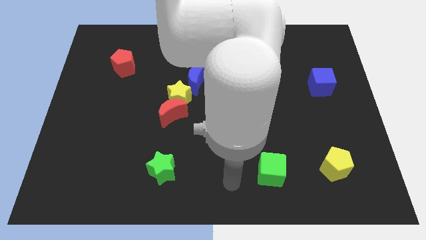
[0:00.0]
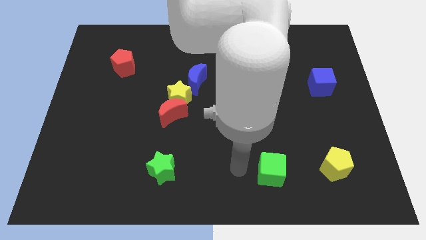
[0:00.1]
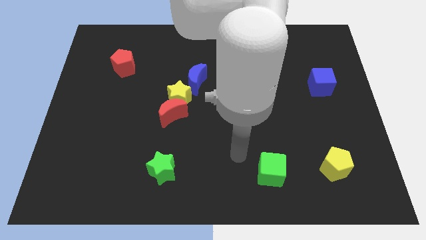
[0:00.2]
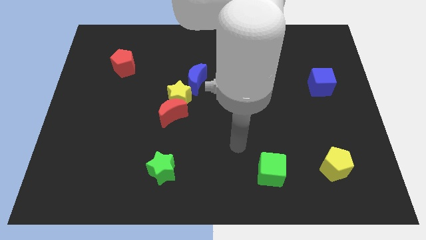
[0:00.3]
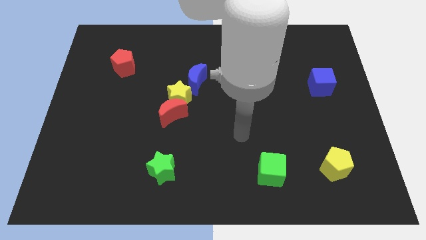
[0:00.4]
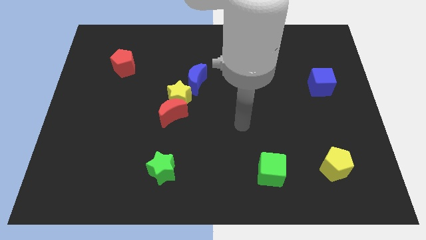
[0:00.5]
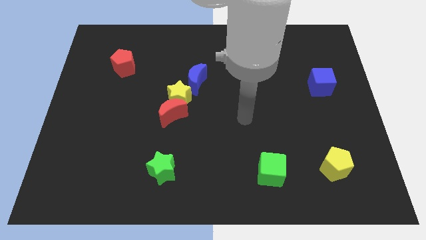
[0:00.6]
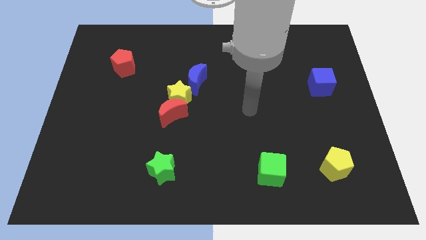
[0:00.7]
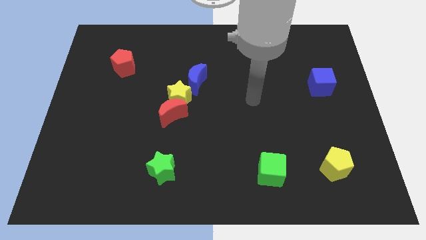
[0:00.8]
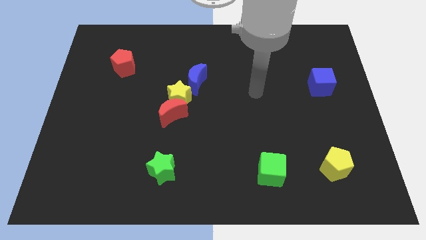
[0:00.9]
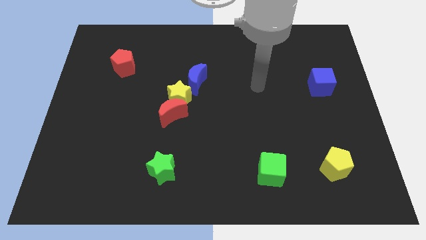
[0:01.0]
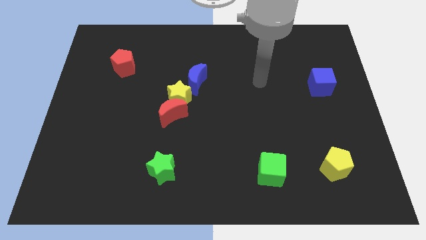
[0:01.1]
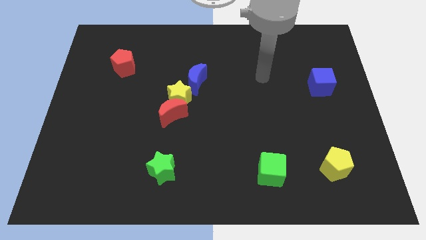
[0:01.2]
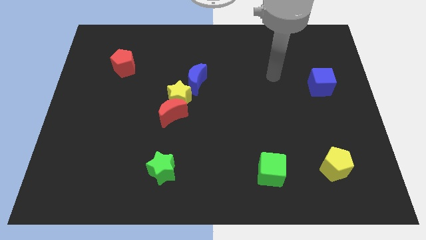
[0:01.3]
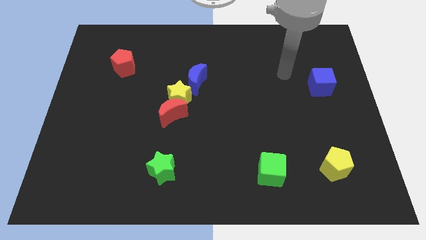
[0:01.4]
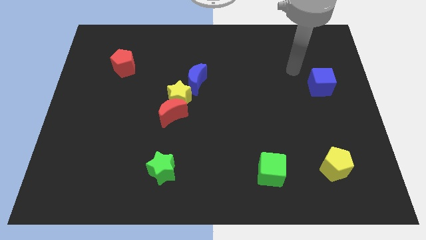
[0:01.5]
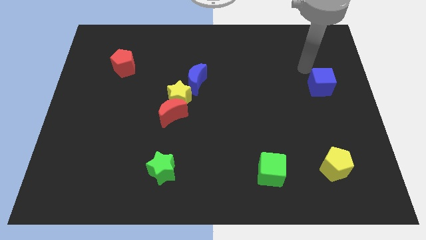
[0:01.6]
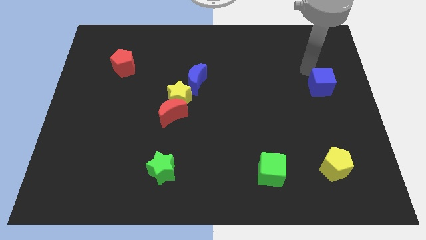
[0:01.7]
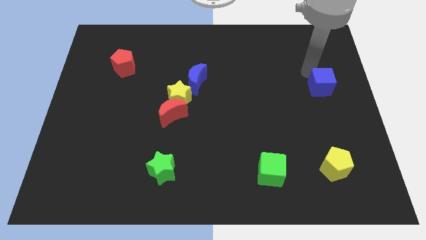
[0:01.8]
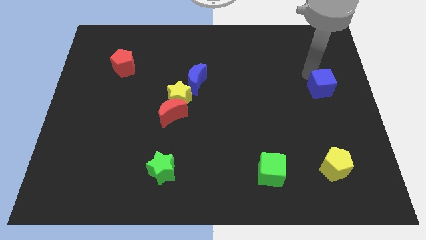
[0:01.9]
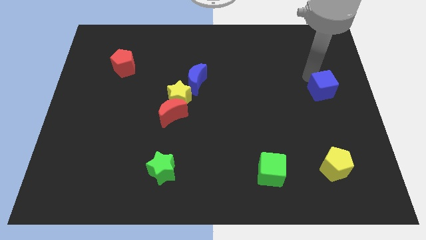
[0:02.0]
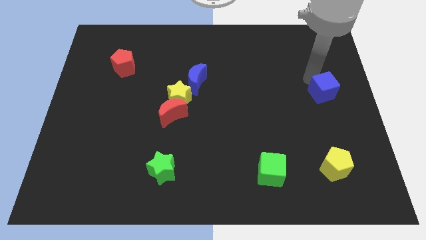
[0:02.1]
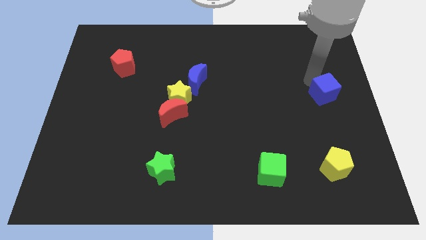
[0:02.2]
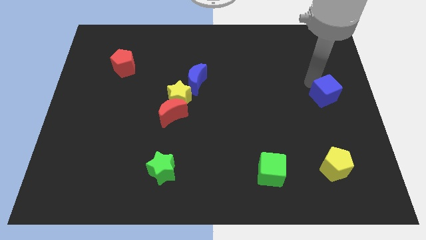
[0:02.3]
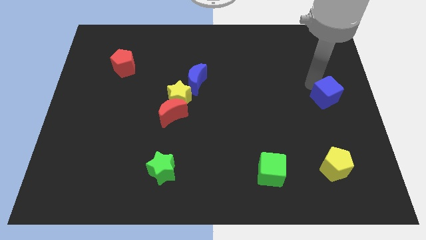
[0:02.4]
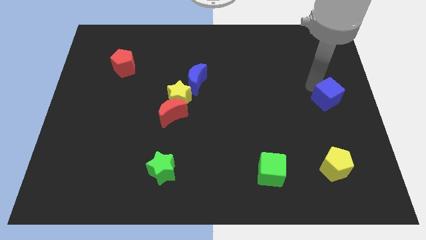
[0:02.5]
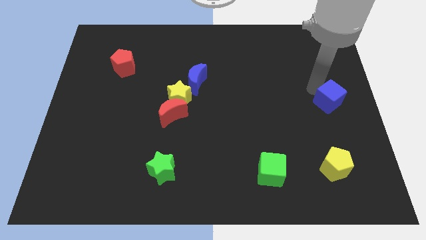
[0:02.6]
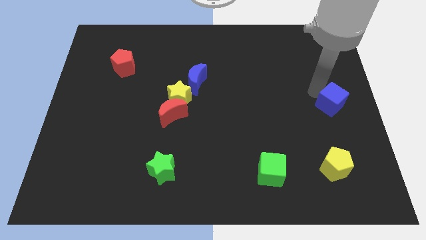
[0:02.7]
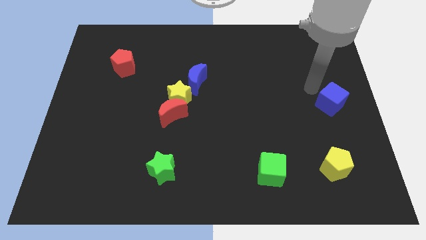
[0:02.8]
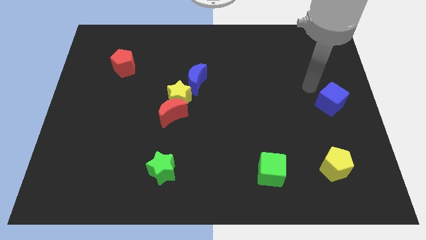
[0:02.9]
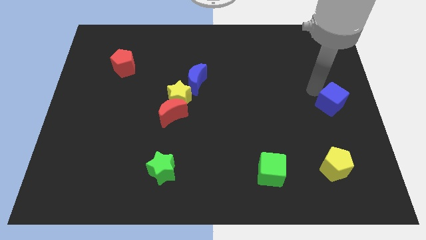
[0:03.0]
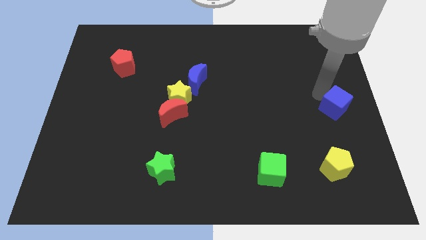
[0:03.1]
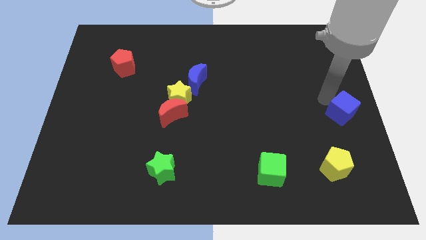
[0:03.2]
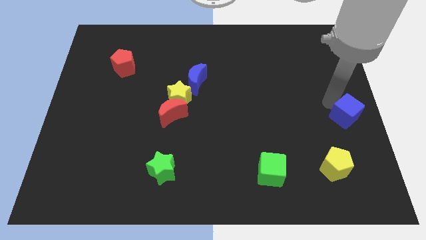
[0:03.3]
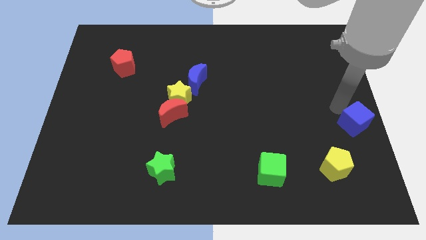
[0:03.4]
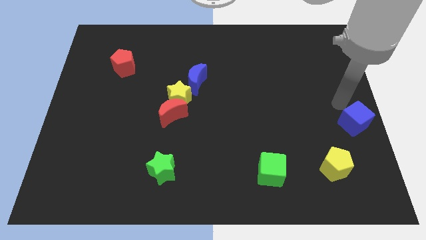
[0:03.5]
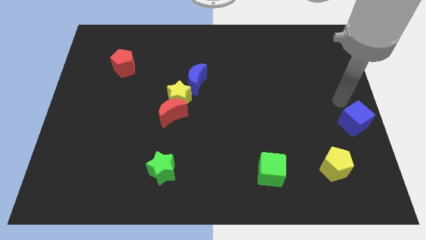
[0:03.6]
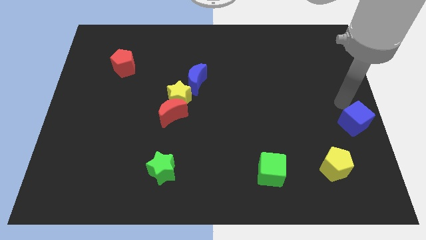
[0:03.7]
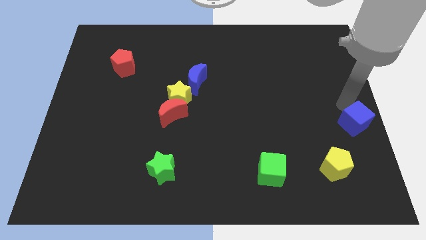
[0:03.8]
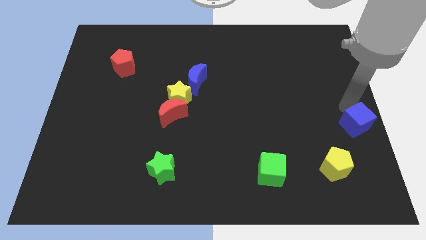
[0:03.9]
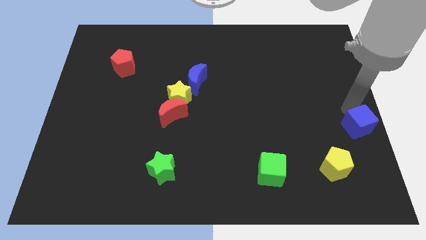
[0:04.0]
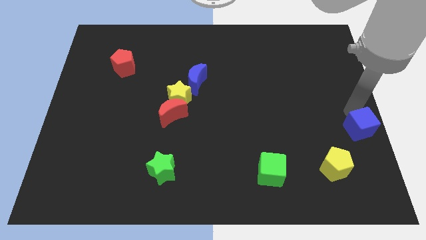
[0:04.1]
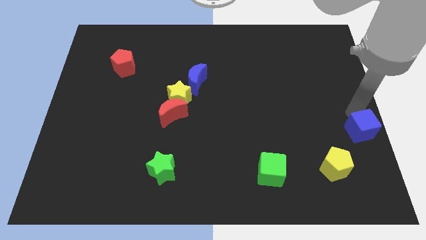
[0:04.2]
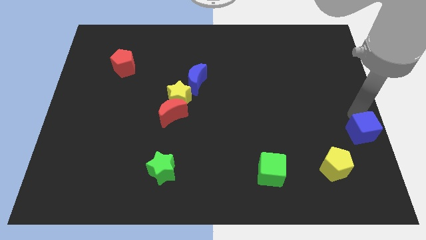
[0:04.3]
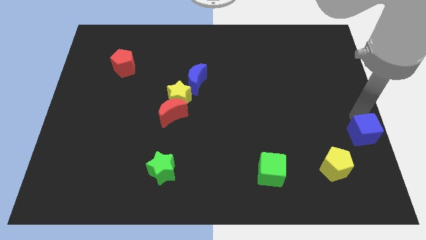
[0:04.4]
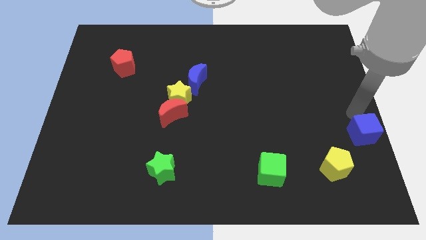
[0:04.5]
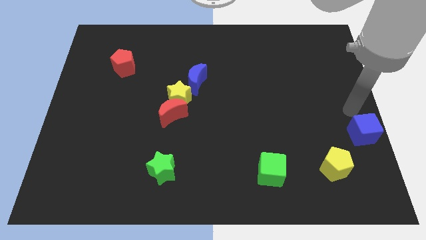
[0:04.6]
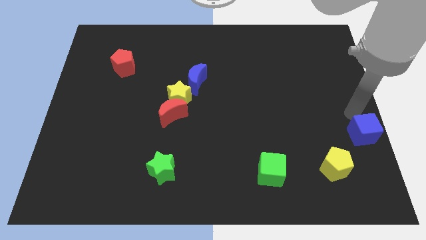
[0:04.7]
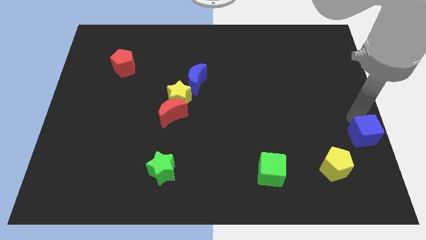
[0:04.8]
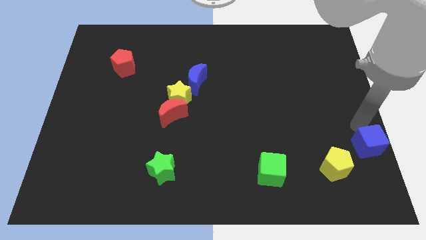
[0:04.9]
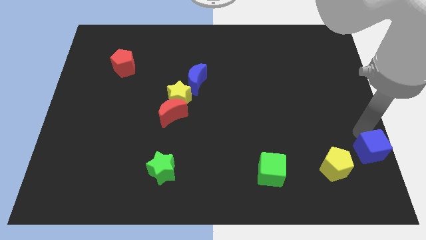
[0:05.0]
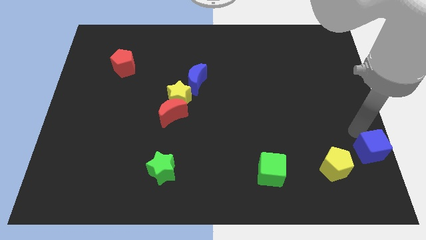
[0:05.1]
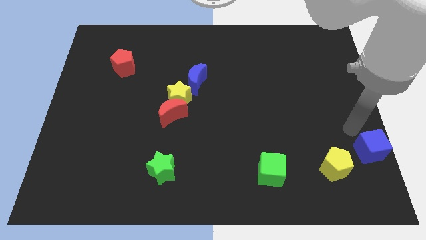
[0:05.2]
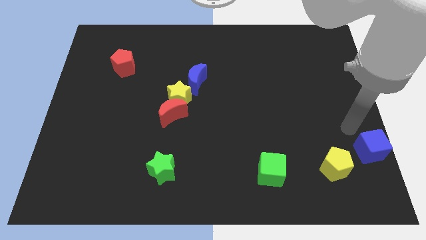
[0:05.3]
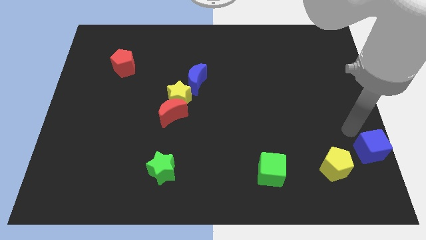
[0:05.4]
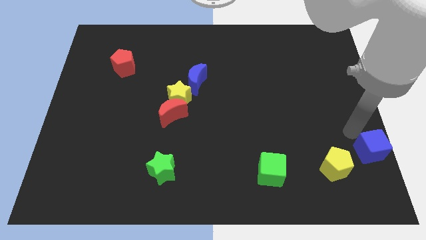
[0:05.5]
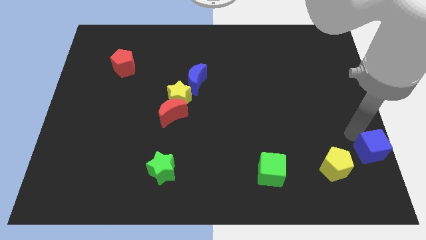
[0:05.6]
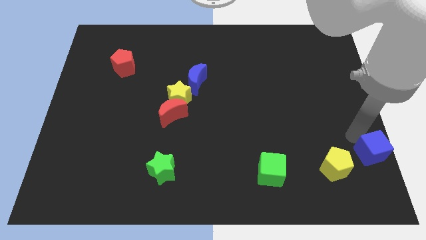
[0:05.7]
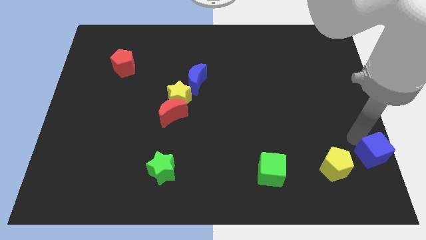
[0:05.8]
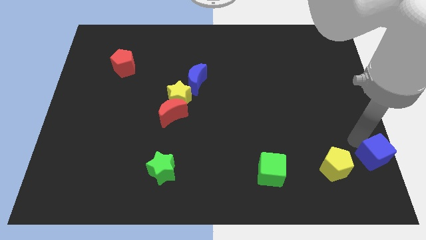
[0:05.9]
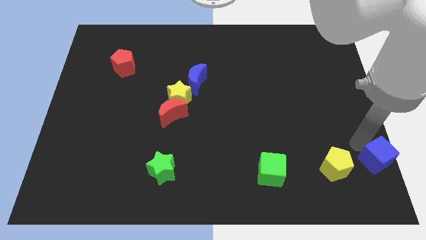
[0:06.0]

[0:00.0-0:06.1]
slide the blue cube to the bottom right of the board
